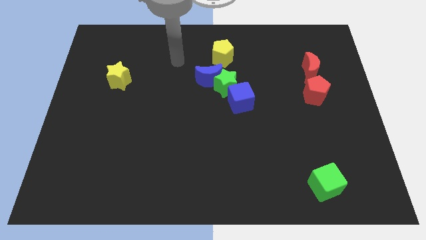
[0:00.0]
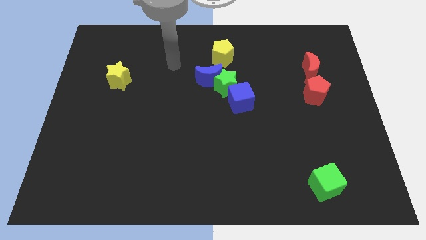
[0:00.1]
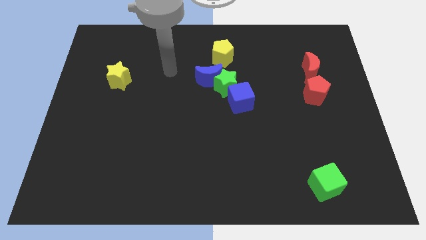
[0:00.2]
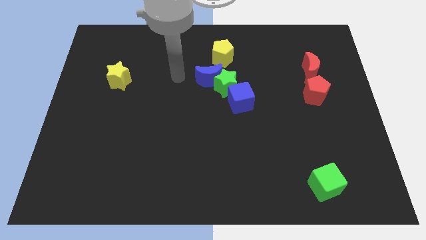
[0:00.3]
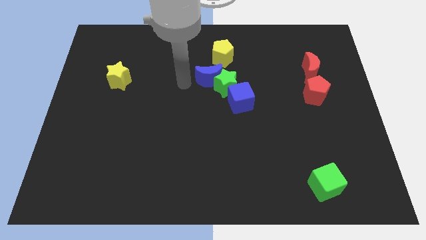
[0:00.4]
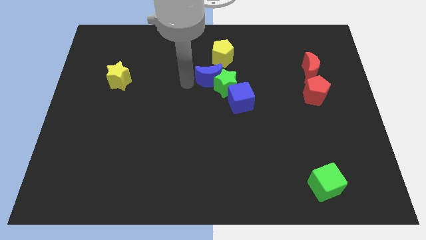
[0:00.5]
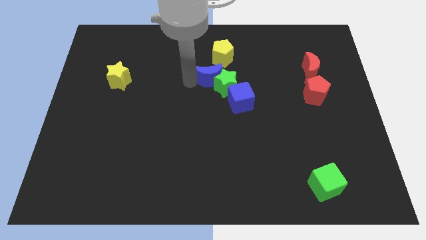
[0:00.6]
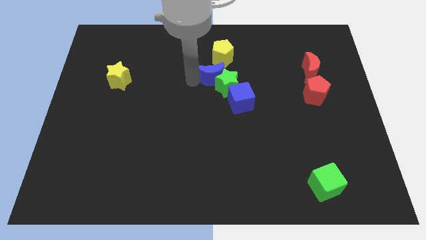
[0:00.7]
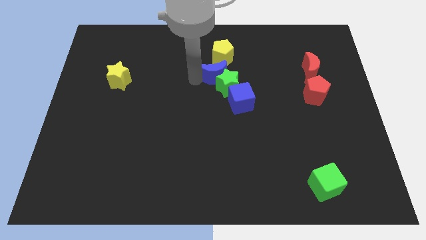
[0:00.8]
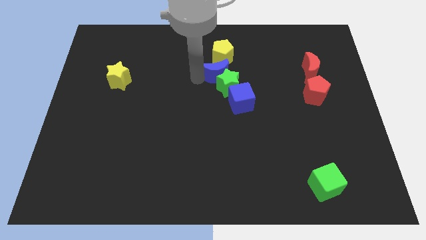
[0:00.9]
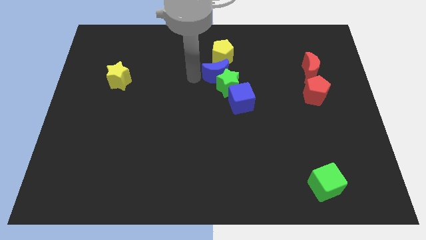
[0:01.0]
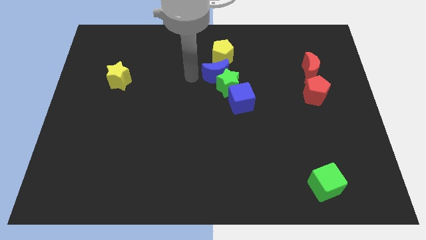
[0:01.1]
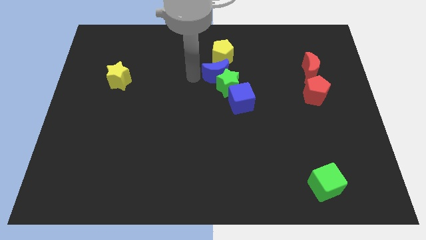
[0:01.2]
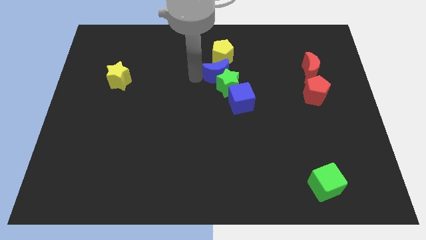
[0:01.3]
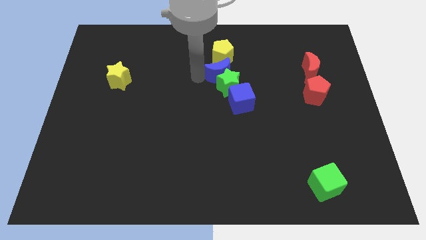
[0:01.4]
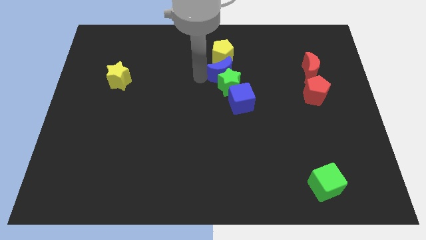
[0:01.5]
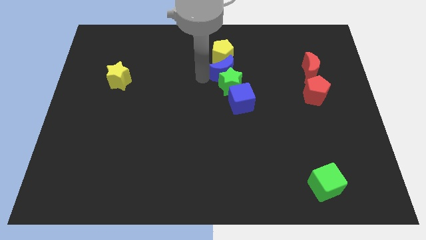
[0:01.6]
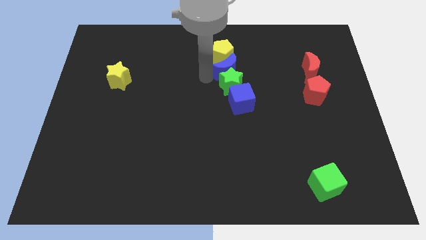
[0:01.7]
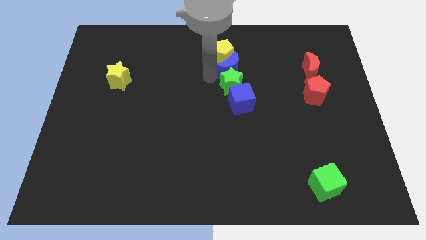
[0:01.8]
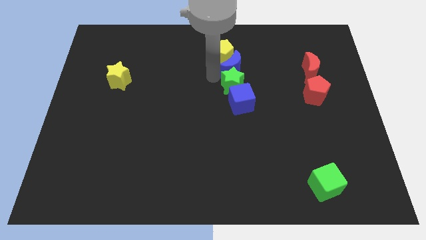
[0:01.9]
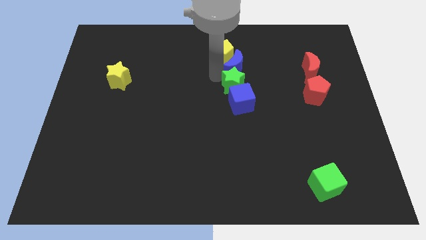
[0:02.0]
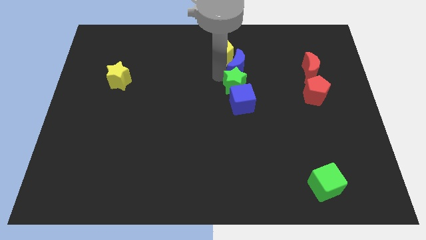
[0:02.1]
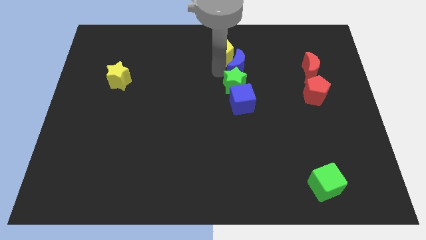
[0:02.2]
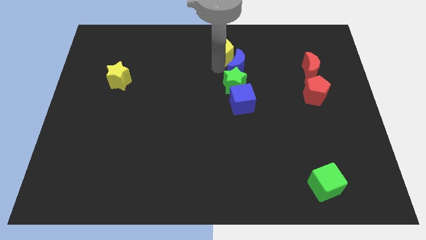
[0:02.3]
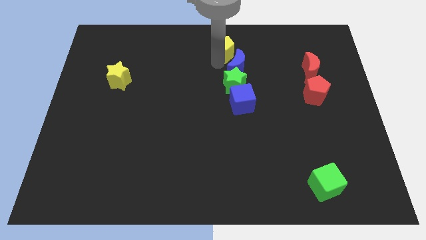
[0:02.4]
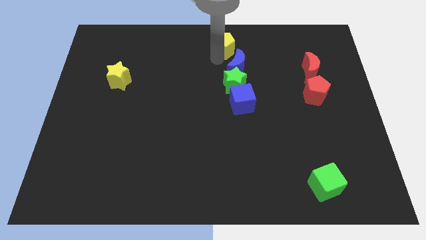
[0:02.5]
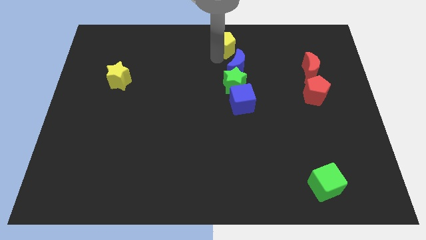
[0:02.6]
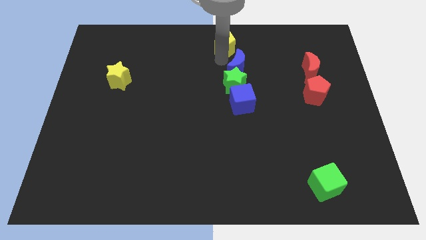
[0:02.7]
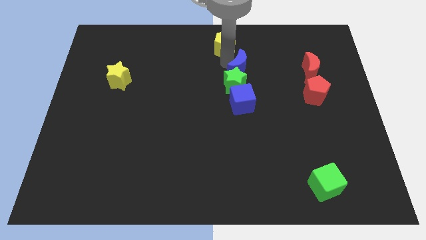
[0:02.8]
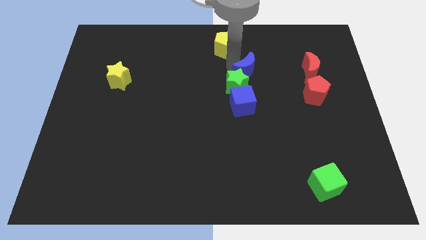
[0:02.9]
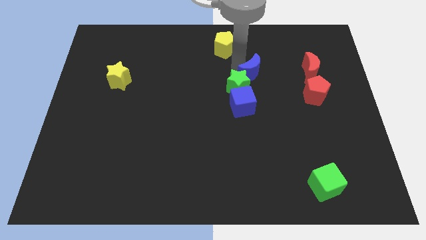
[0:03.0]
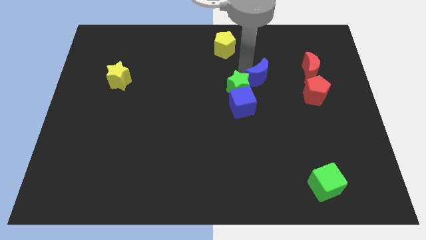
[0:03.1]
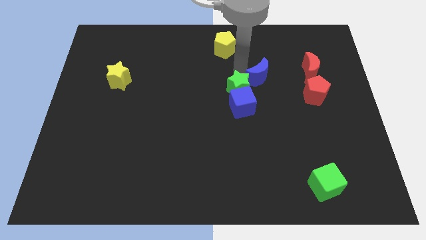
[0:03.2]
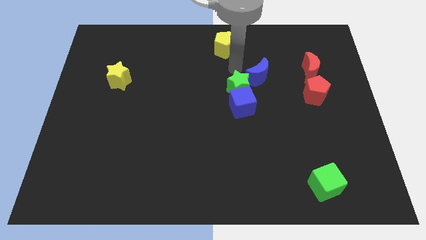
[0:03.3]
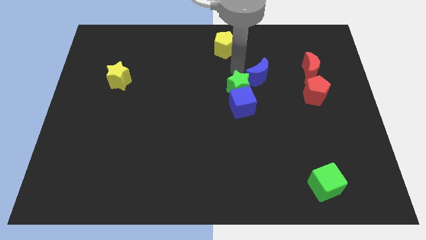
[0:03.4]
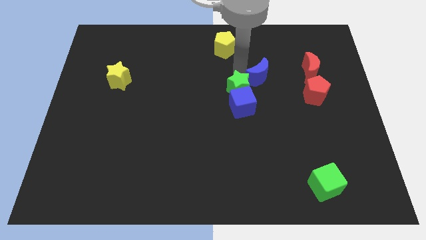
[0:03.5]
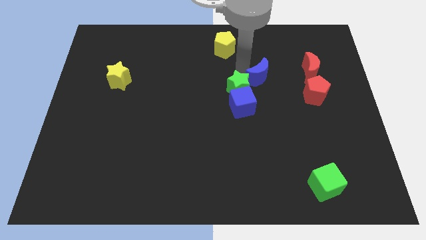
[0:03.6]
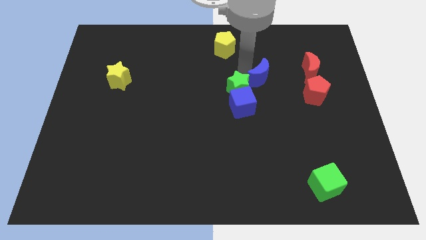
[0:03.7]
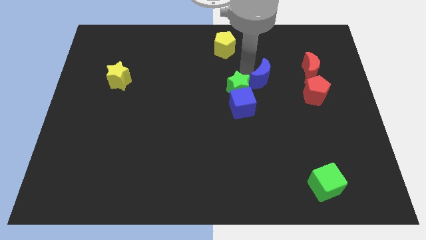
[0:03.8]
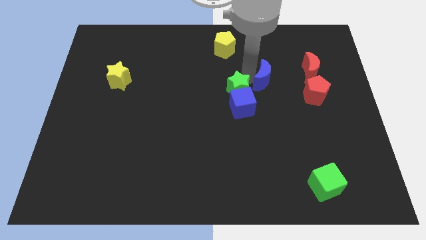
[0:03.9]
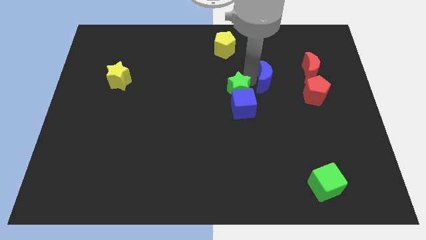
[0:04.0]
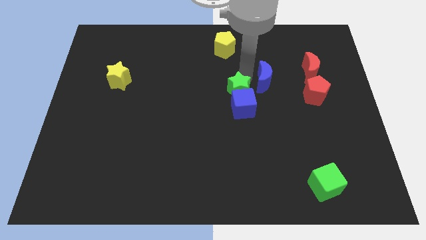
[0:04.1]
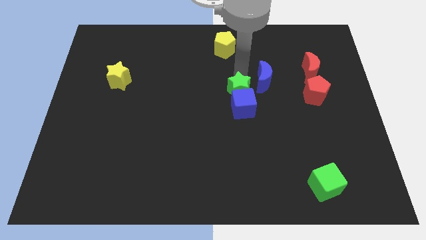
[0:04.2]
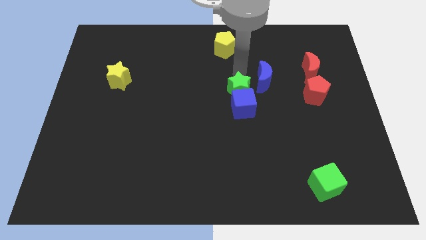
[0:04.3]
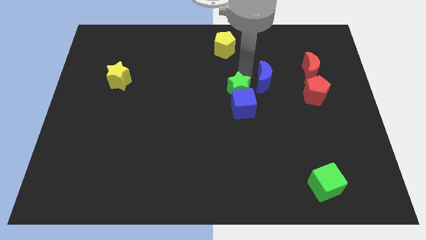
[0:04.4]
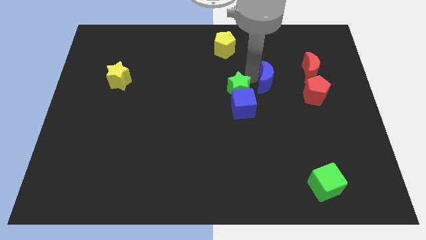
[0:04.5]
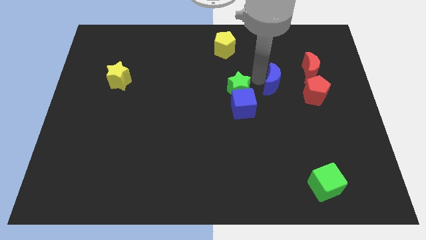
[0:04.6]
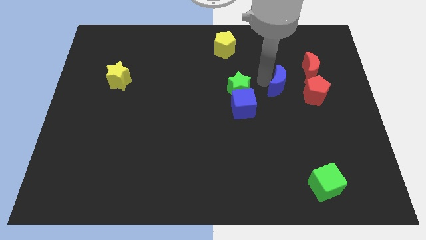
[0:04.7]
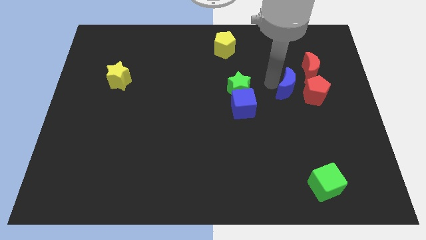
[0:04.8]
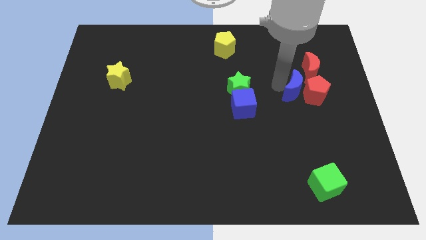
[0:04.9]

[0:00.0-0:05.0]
slide the blue moon to the red pentagon

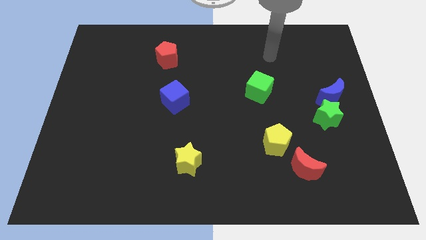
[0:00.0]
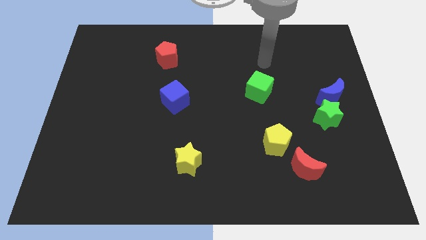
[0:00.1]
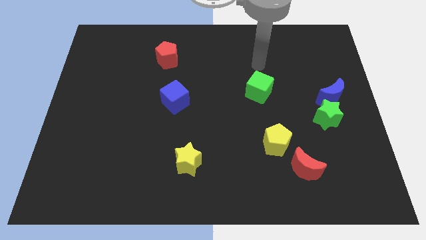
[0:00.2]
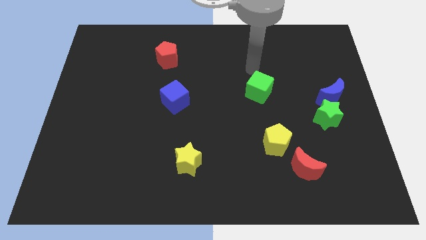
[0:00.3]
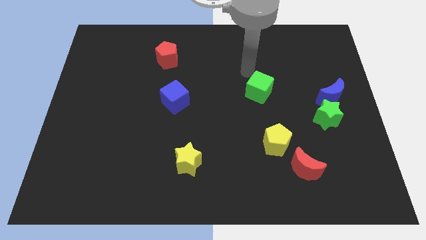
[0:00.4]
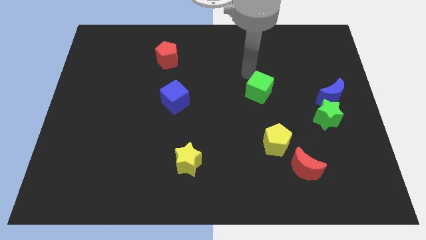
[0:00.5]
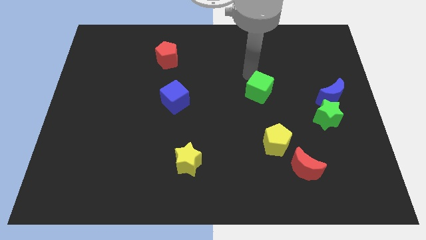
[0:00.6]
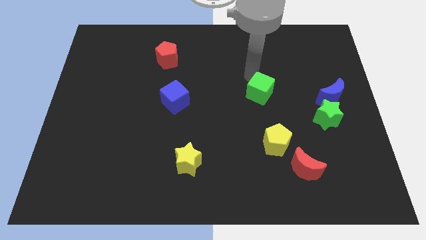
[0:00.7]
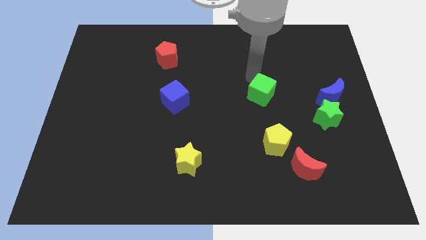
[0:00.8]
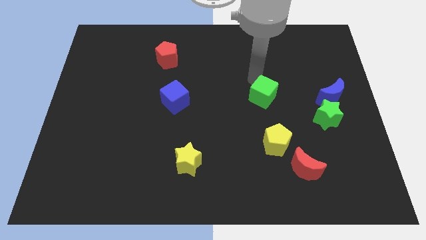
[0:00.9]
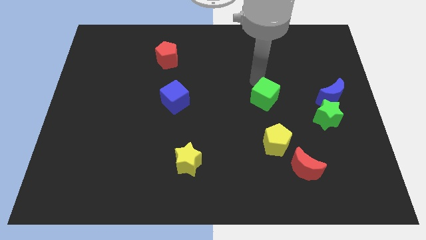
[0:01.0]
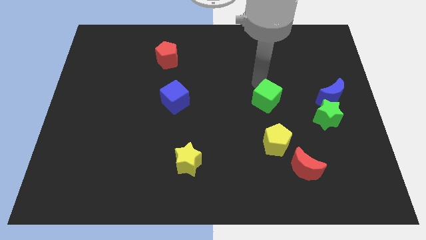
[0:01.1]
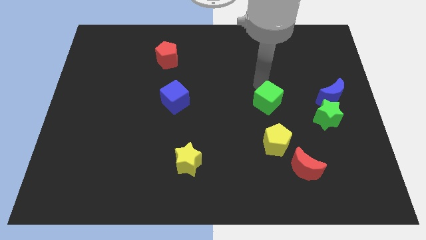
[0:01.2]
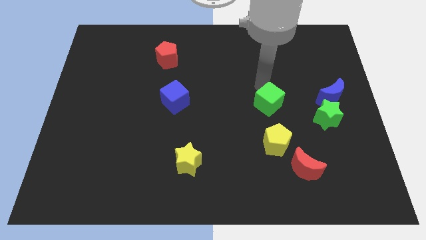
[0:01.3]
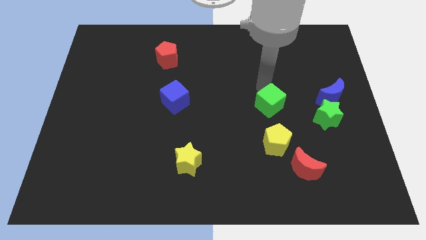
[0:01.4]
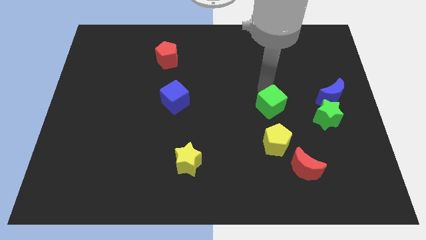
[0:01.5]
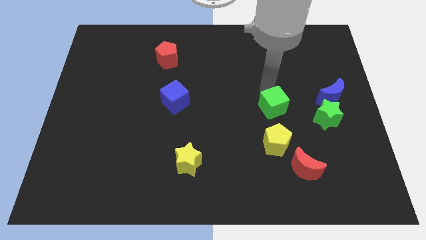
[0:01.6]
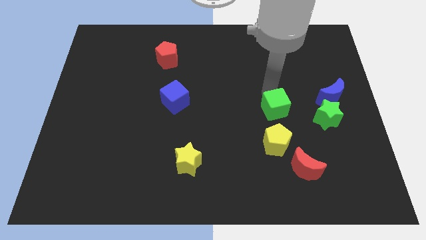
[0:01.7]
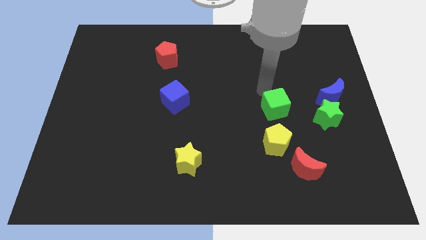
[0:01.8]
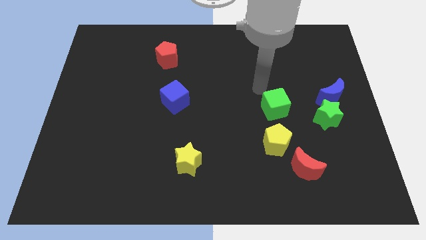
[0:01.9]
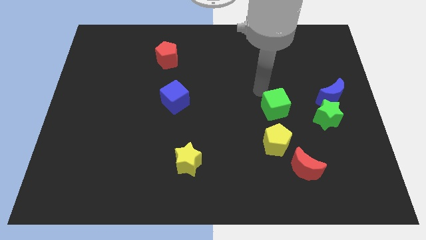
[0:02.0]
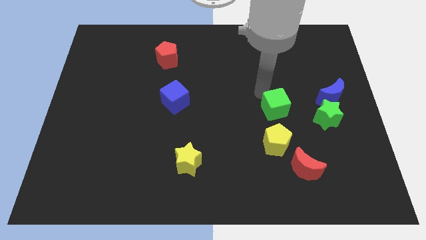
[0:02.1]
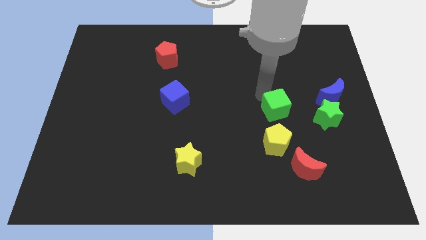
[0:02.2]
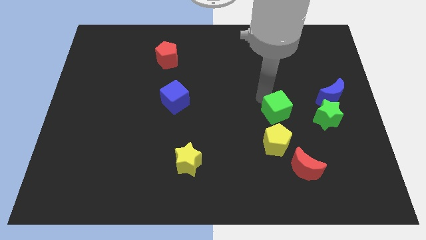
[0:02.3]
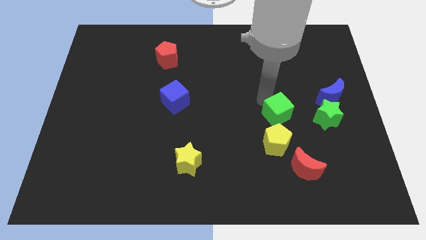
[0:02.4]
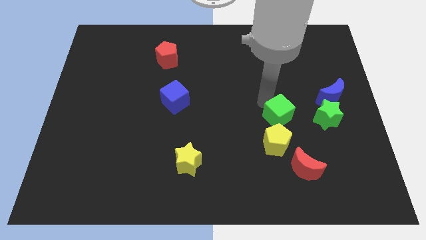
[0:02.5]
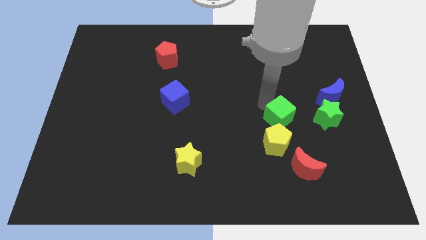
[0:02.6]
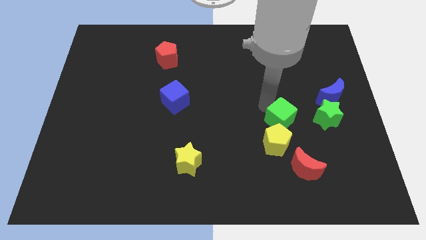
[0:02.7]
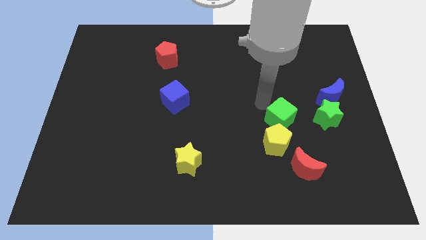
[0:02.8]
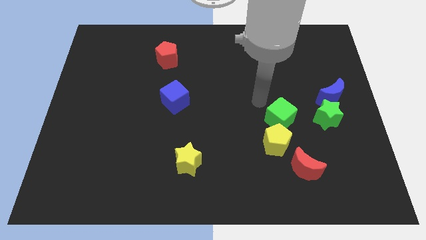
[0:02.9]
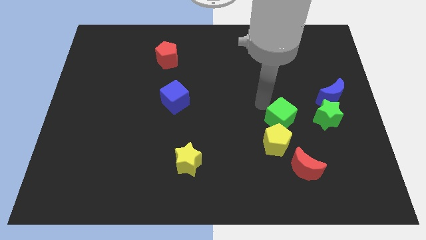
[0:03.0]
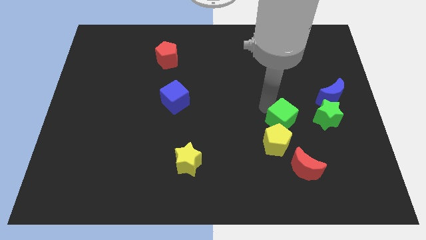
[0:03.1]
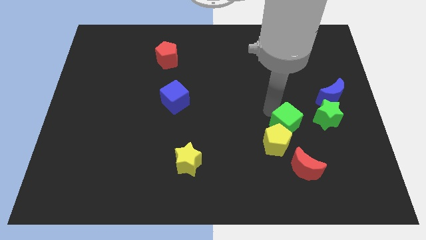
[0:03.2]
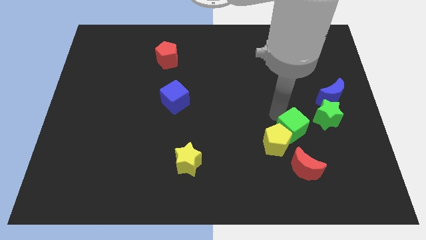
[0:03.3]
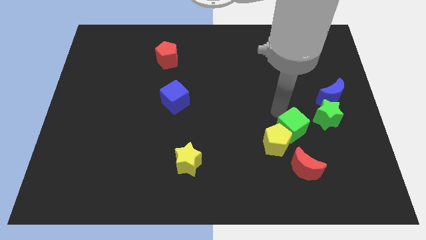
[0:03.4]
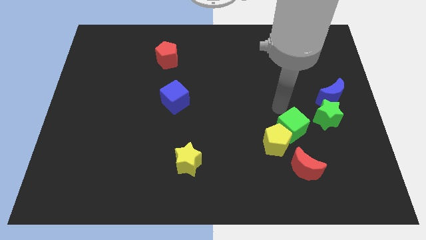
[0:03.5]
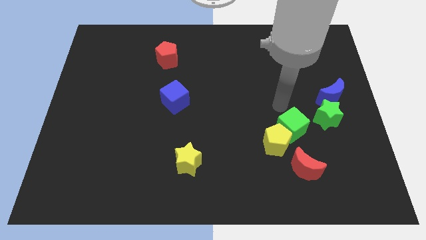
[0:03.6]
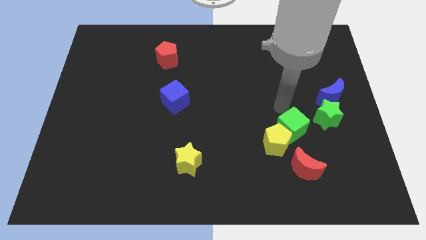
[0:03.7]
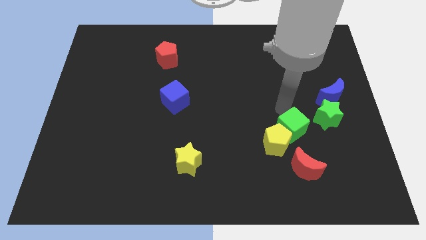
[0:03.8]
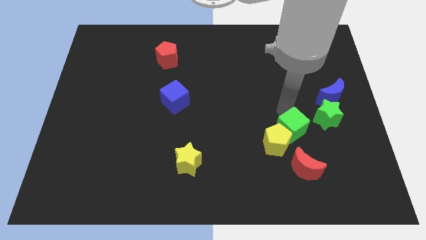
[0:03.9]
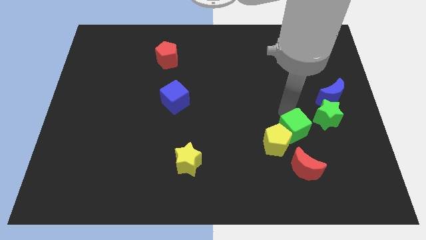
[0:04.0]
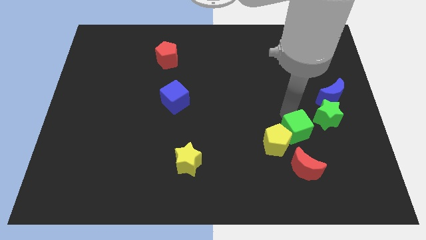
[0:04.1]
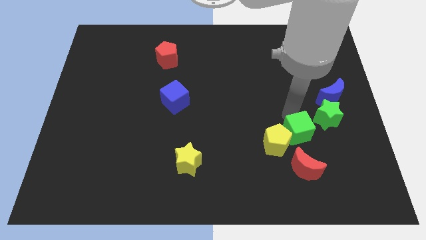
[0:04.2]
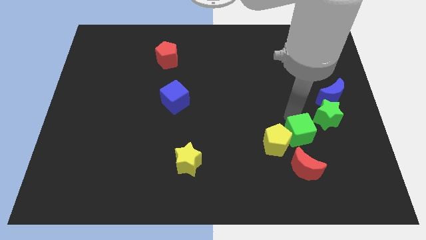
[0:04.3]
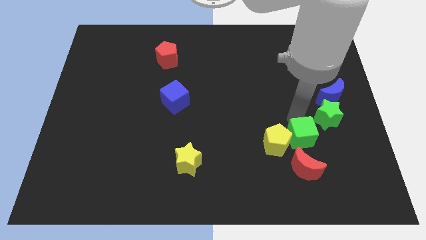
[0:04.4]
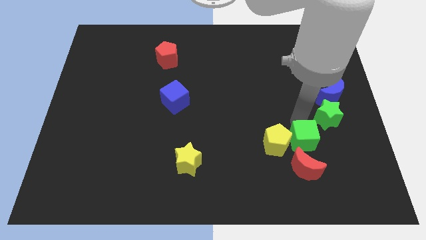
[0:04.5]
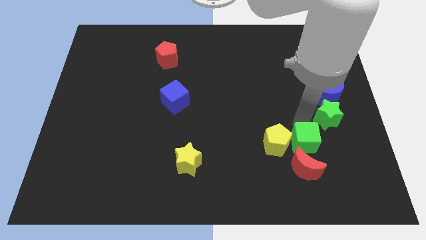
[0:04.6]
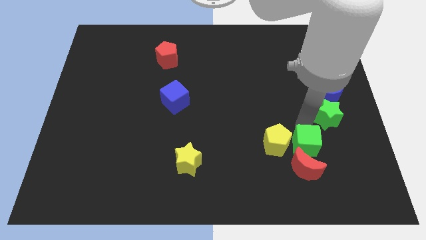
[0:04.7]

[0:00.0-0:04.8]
slide the green cube to the red moon
